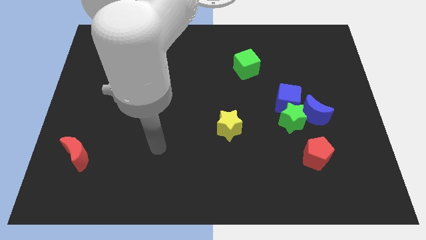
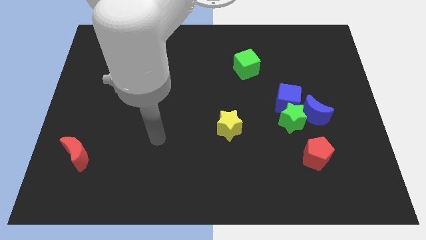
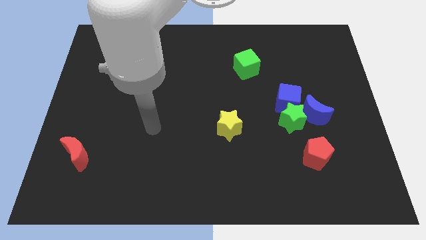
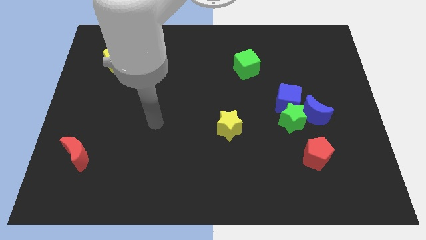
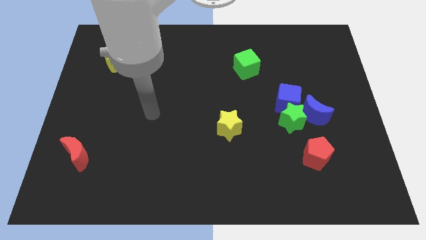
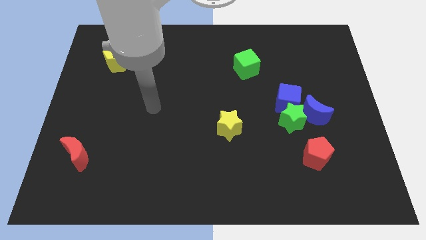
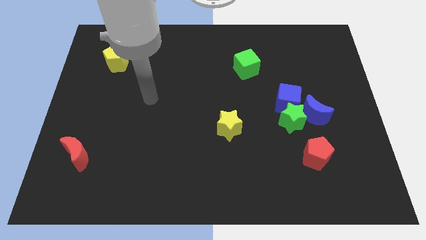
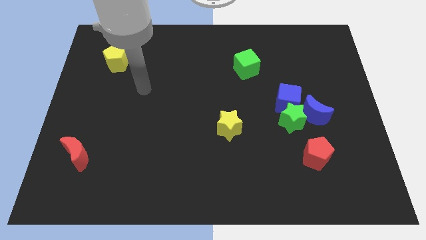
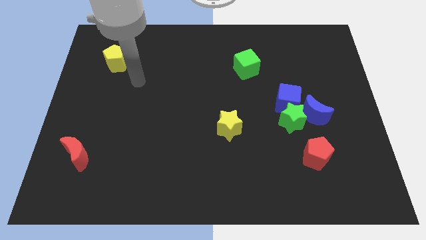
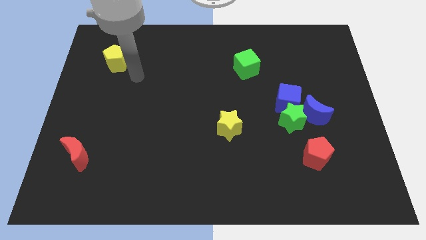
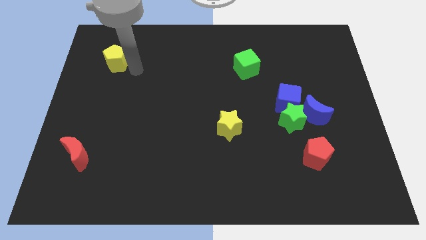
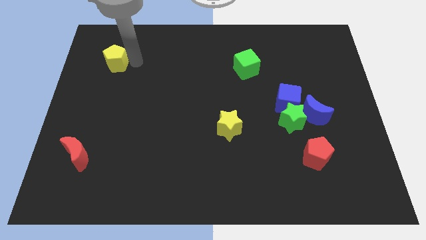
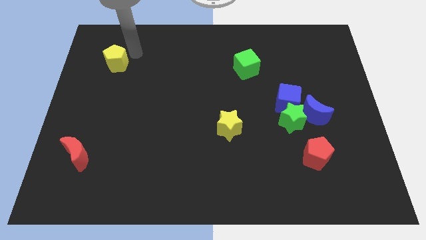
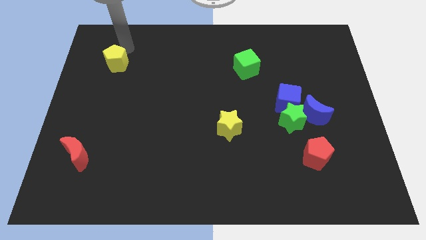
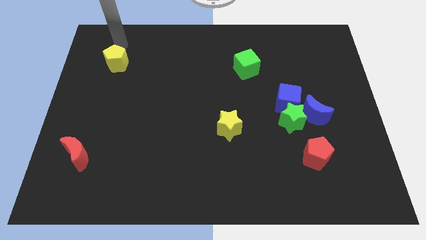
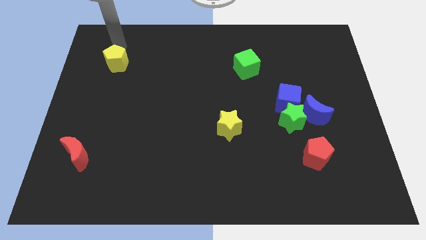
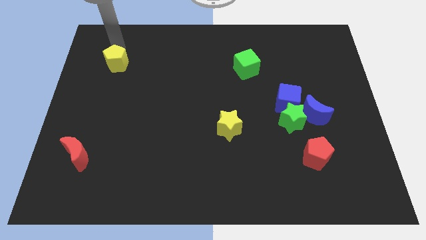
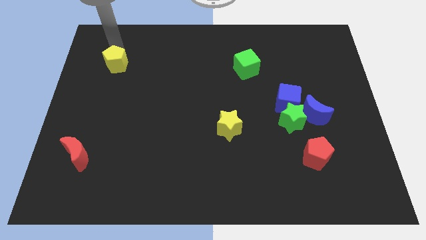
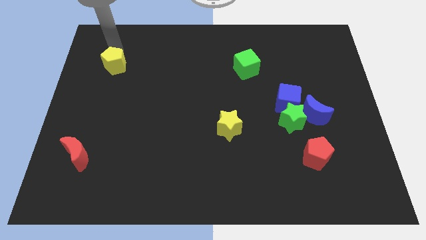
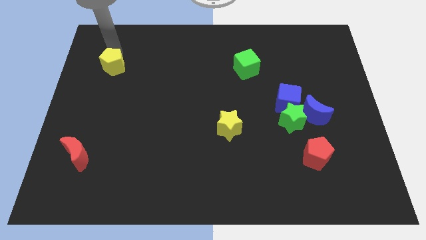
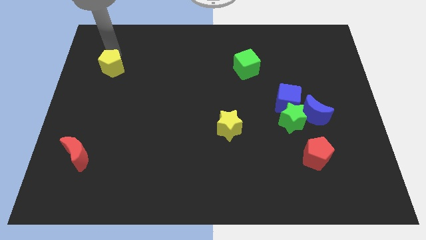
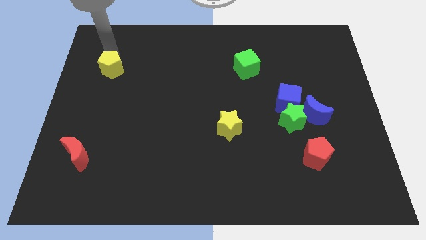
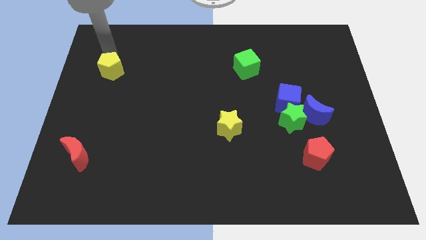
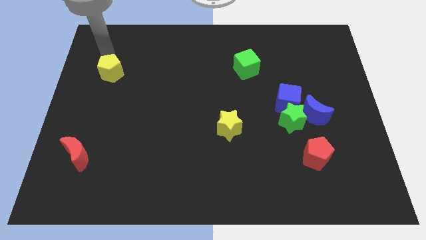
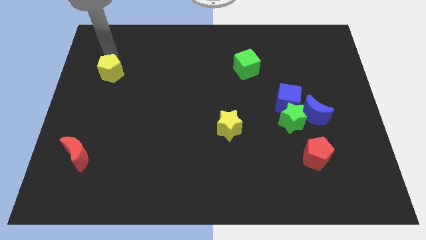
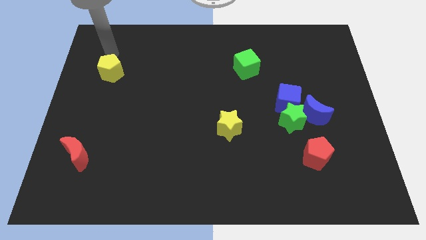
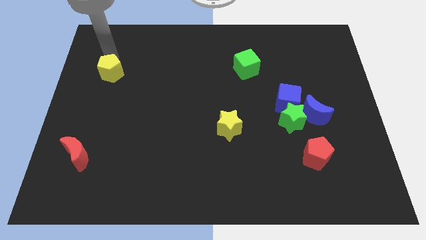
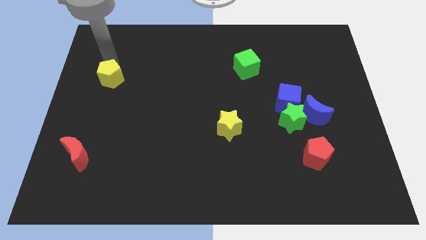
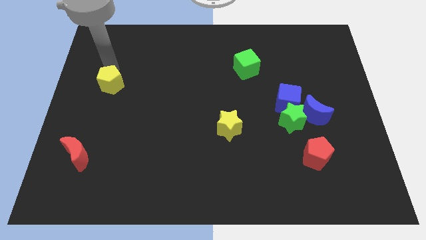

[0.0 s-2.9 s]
slide the yellow pentagon downwards a little bit

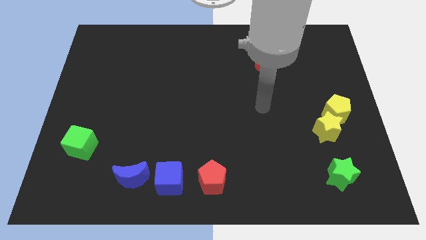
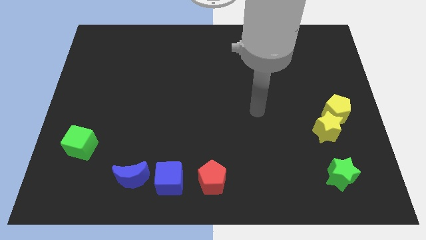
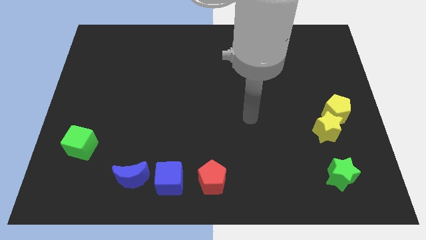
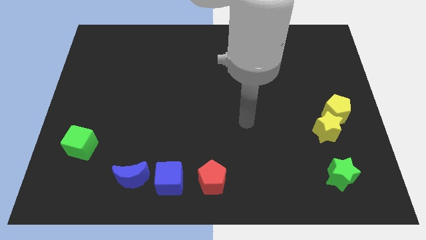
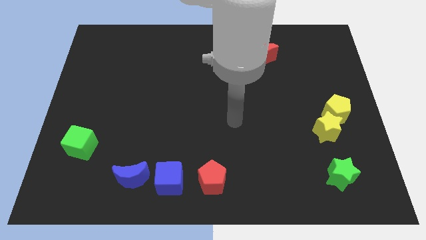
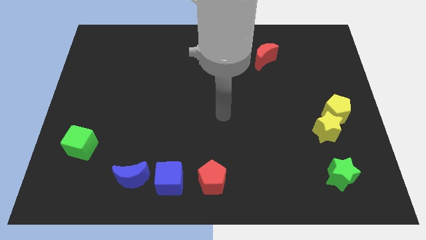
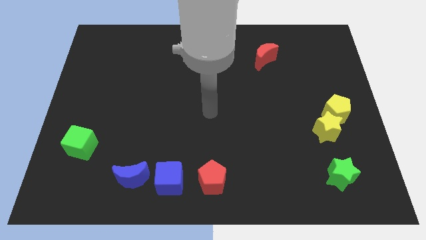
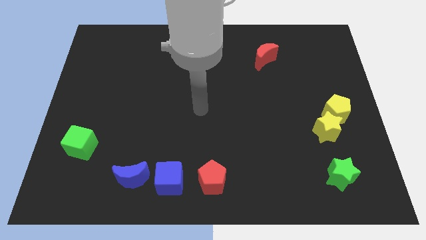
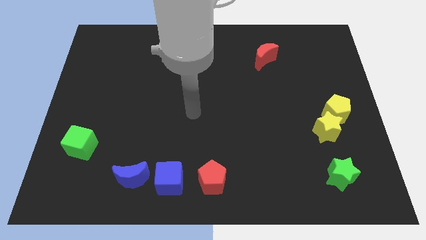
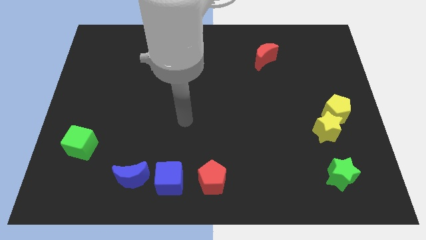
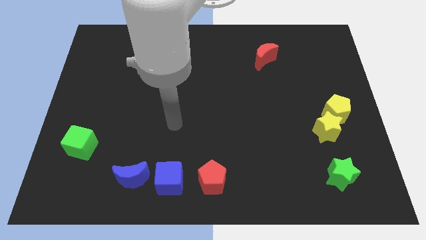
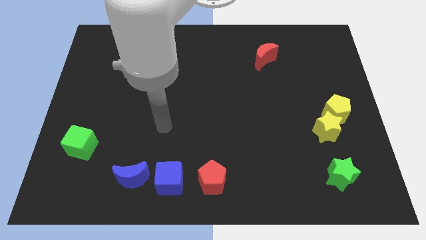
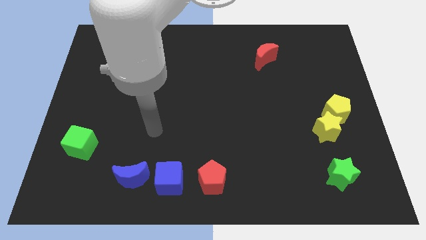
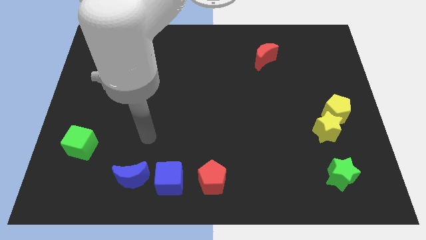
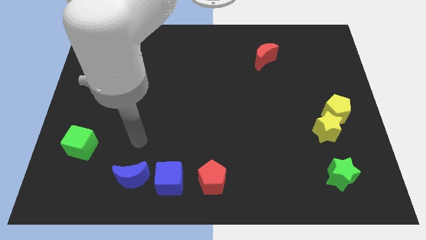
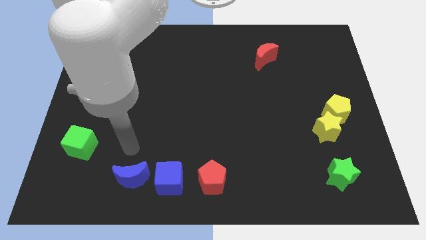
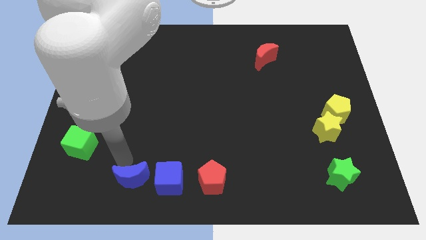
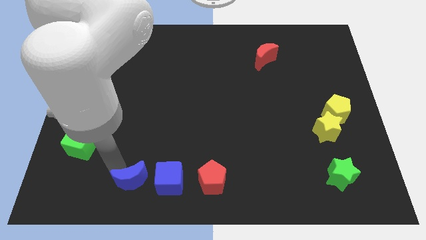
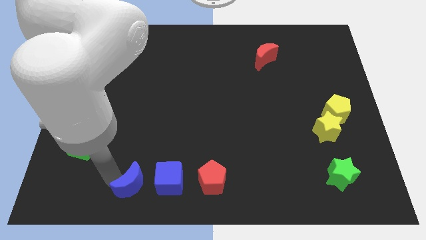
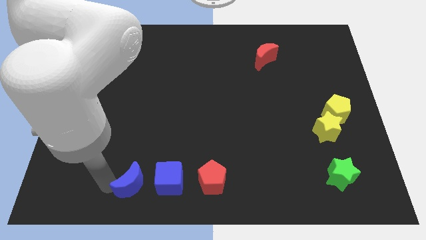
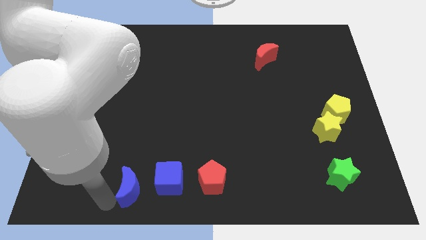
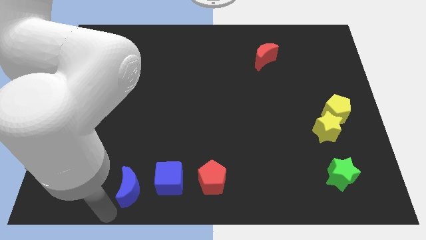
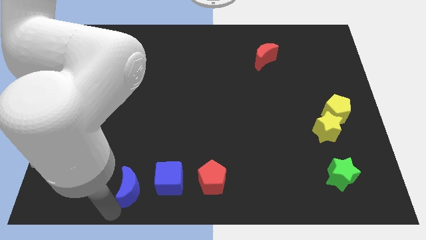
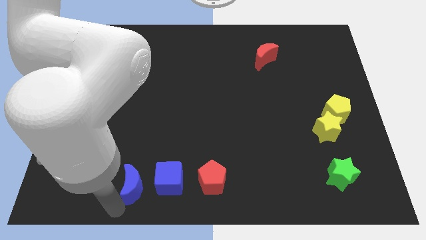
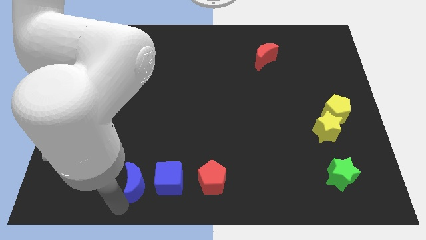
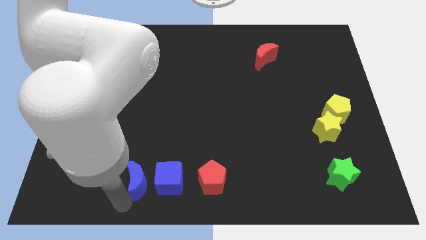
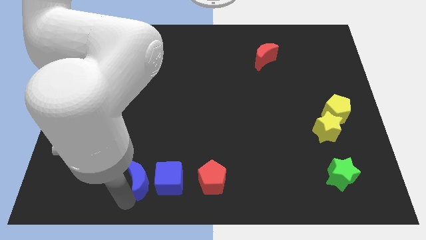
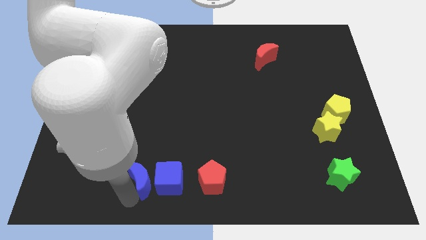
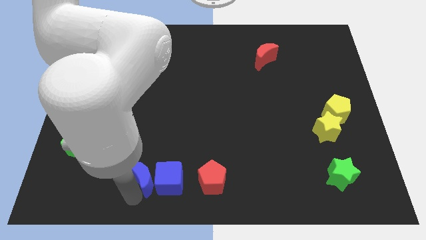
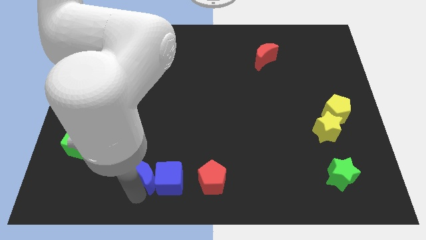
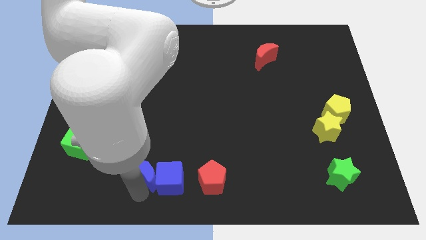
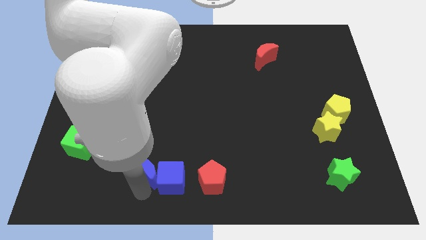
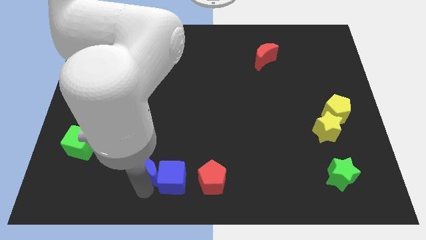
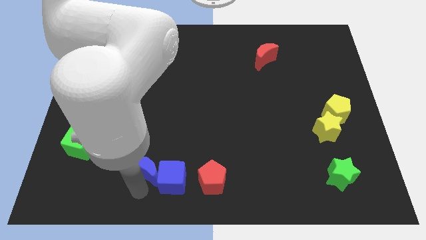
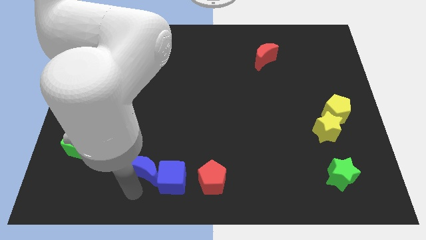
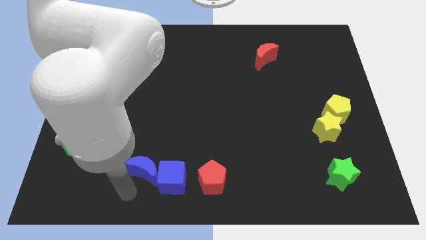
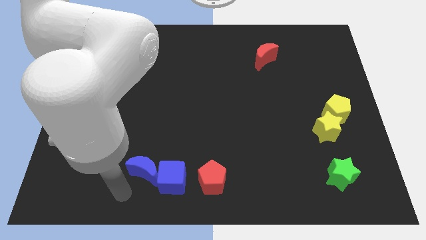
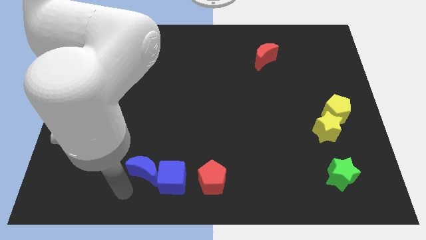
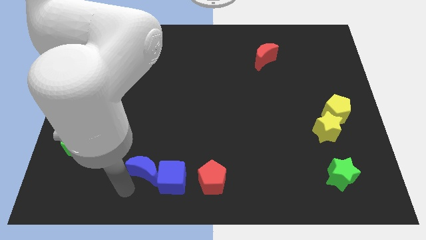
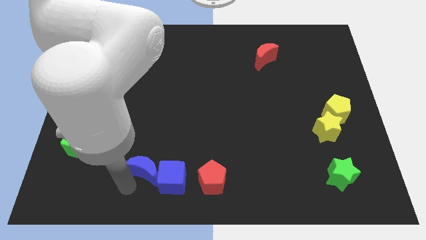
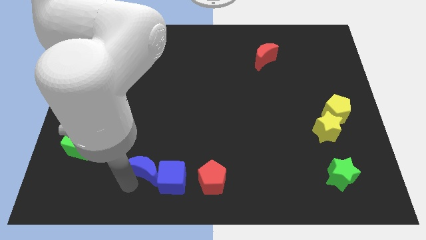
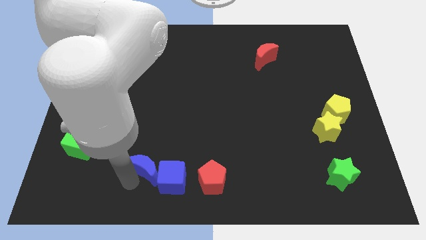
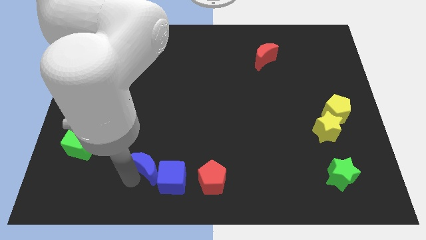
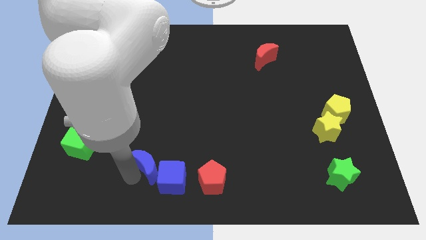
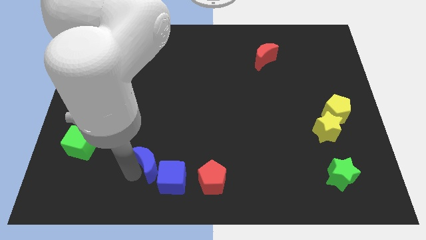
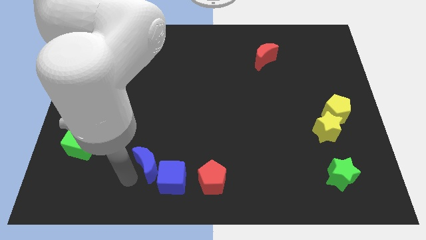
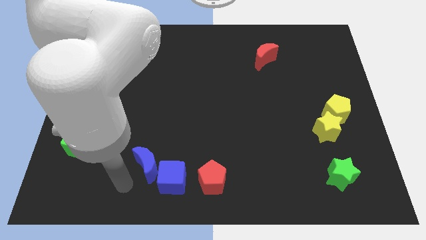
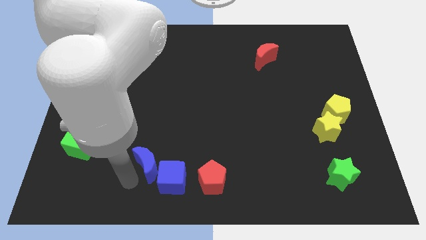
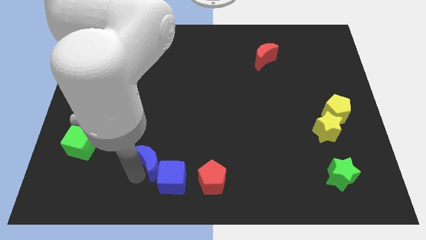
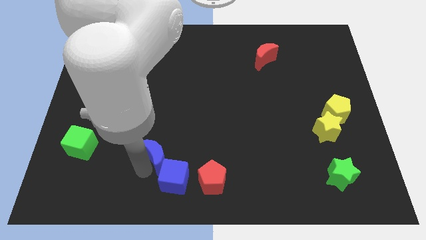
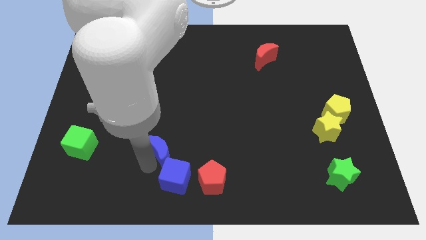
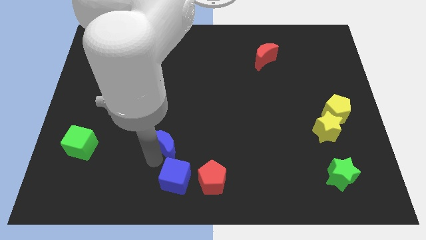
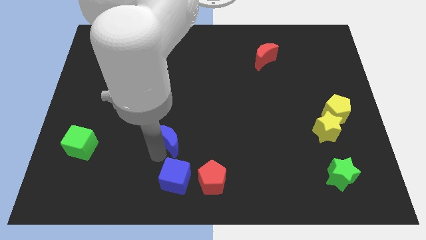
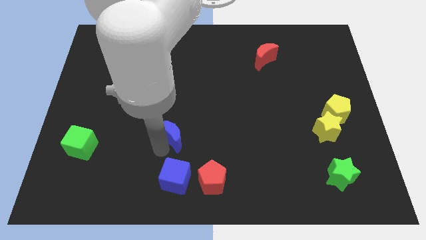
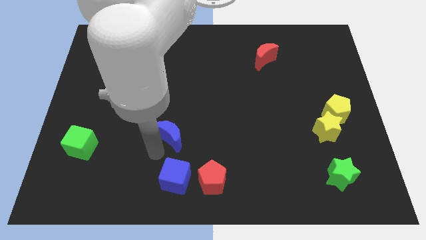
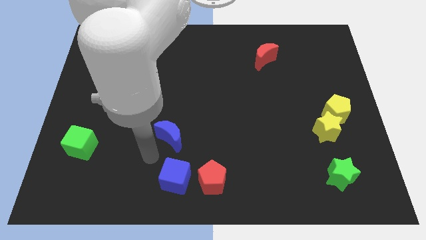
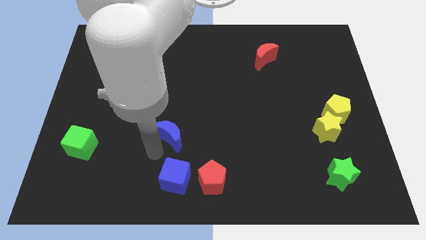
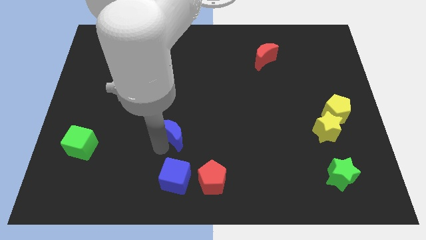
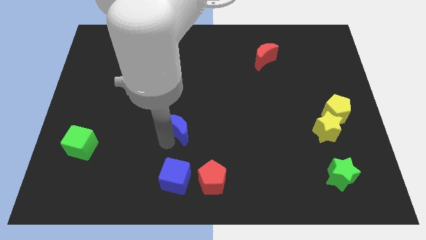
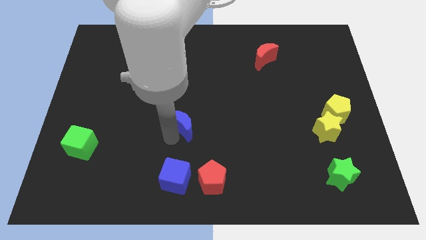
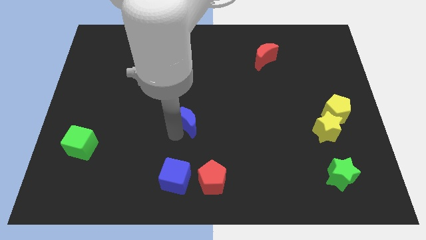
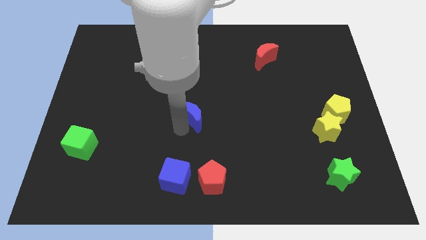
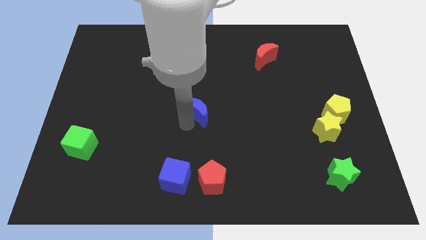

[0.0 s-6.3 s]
slide the blue moon upwards and right diagonally
